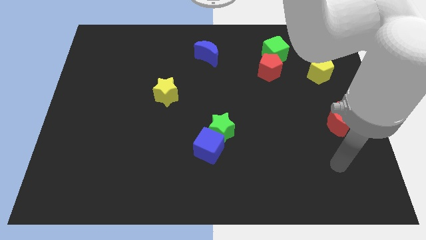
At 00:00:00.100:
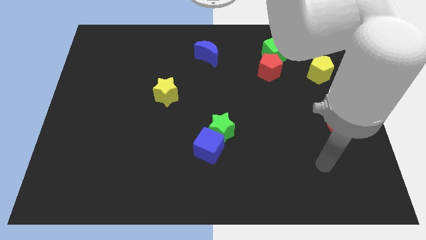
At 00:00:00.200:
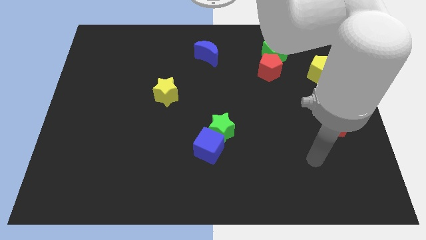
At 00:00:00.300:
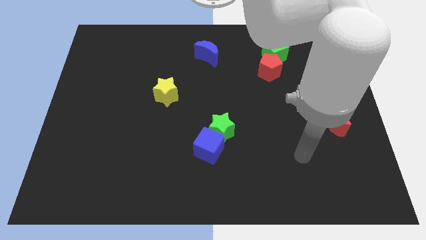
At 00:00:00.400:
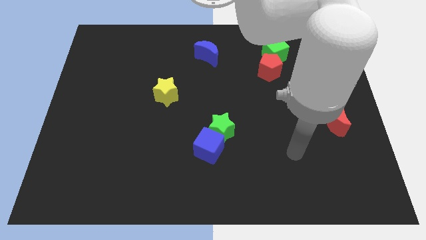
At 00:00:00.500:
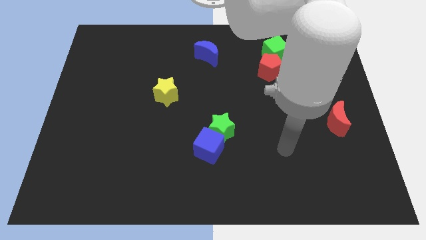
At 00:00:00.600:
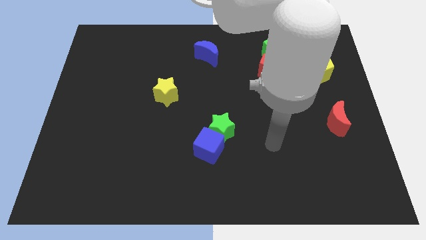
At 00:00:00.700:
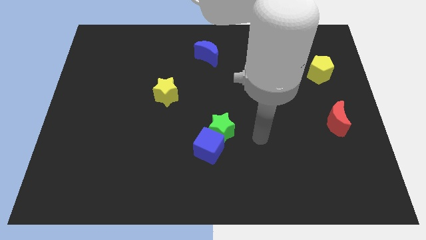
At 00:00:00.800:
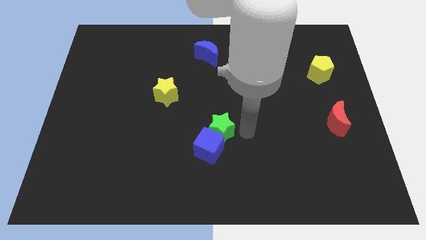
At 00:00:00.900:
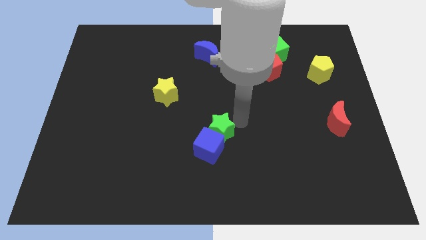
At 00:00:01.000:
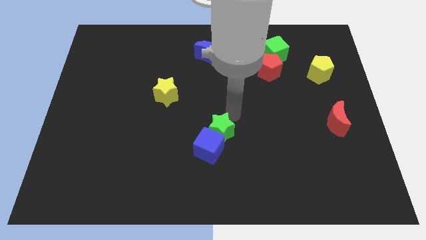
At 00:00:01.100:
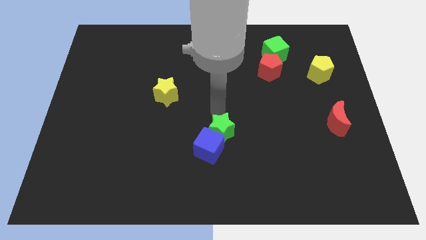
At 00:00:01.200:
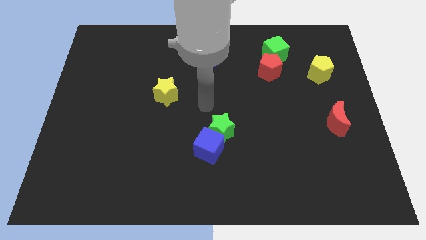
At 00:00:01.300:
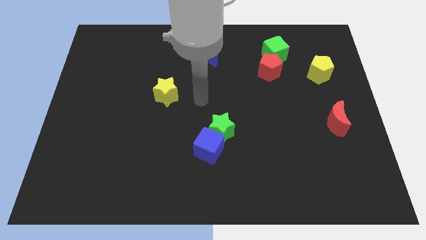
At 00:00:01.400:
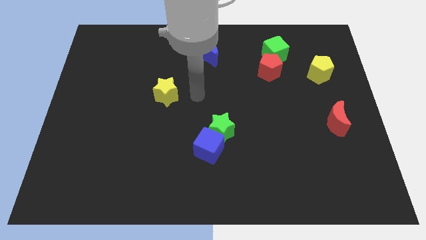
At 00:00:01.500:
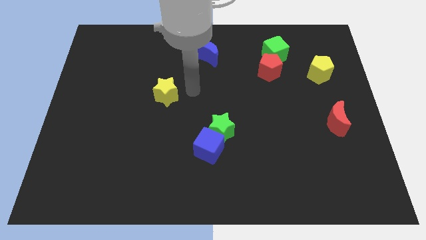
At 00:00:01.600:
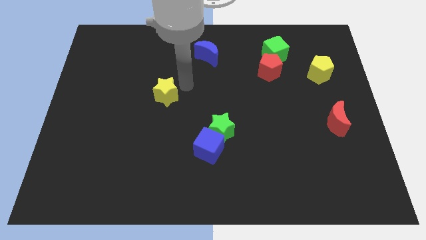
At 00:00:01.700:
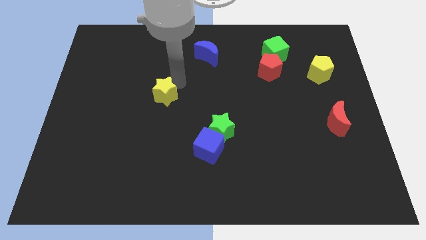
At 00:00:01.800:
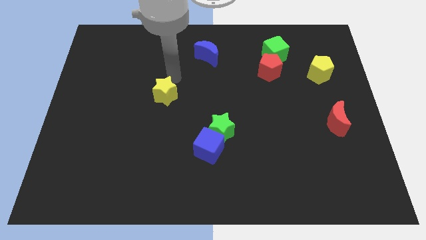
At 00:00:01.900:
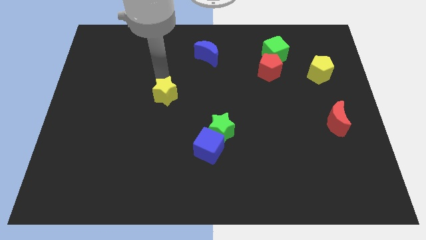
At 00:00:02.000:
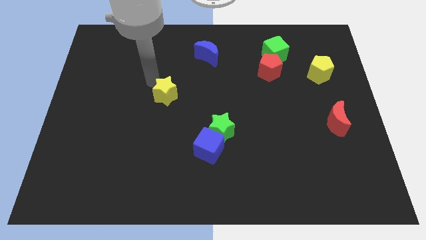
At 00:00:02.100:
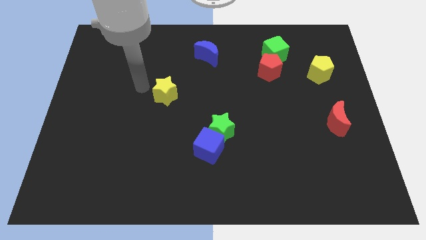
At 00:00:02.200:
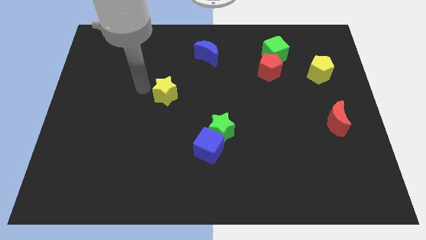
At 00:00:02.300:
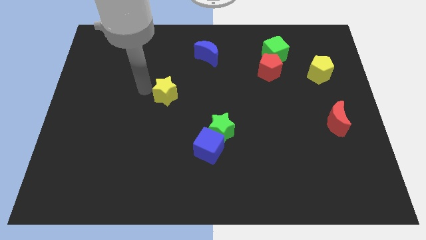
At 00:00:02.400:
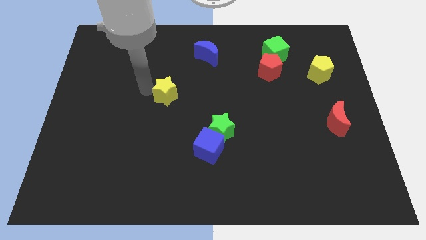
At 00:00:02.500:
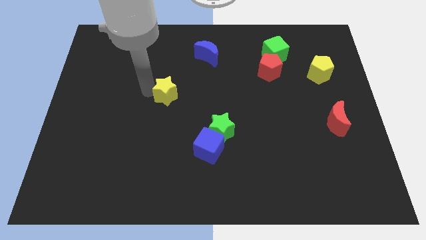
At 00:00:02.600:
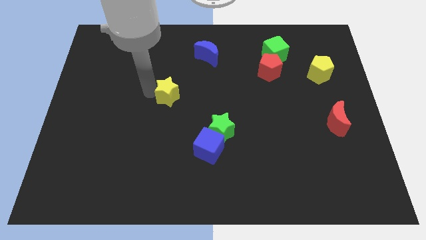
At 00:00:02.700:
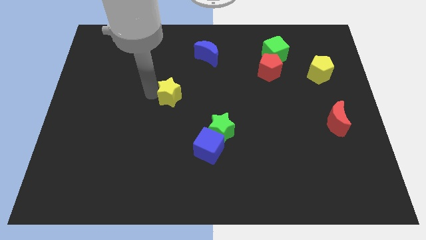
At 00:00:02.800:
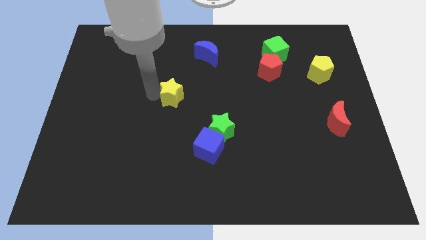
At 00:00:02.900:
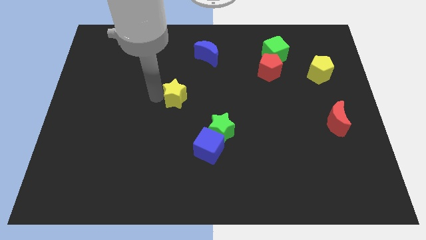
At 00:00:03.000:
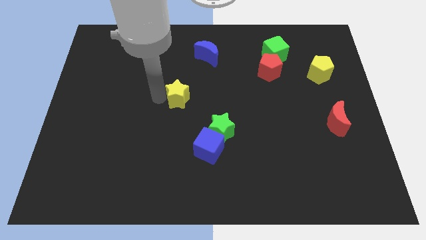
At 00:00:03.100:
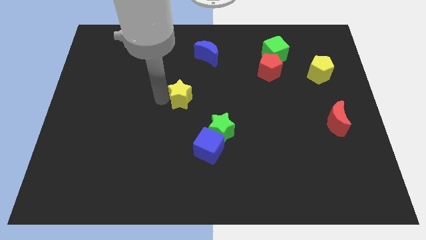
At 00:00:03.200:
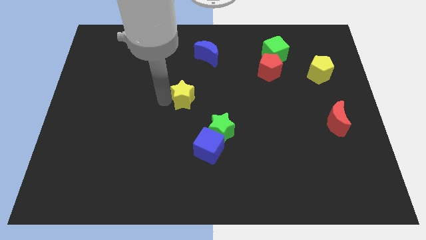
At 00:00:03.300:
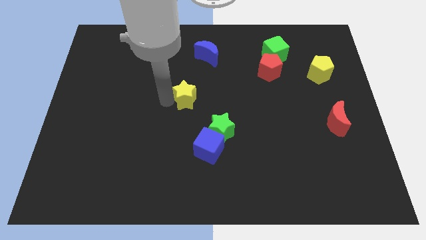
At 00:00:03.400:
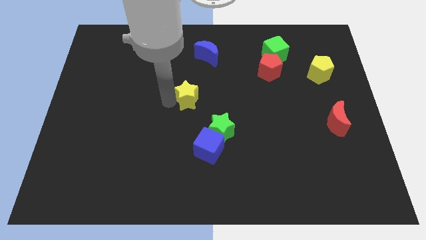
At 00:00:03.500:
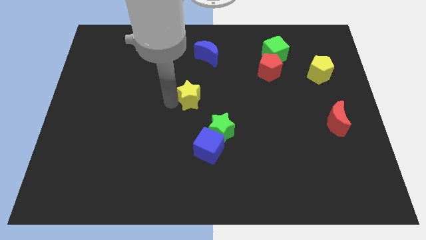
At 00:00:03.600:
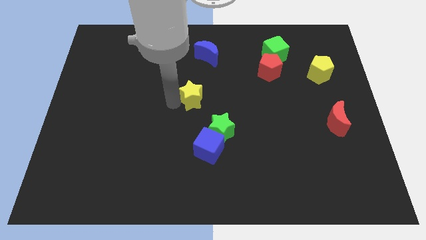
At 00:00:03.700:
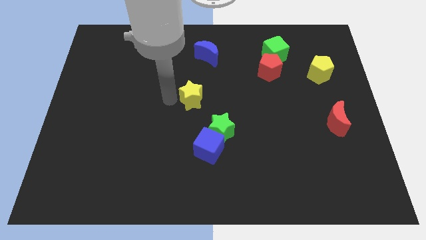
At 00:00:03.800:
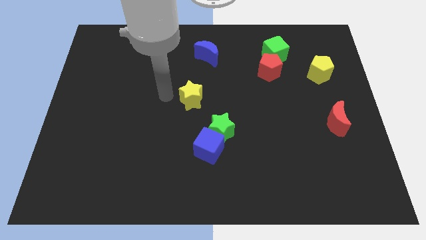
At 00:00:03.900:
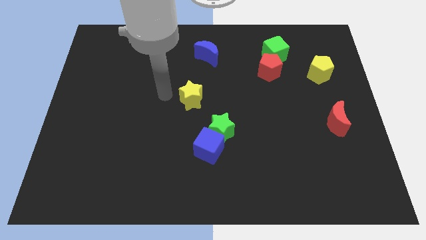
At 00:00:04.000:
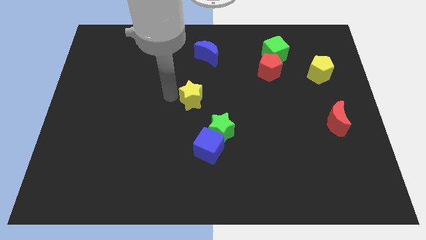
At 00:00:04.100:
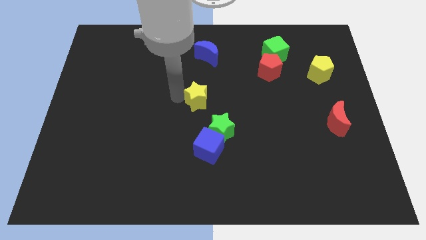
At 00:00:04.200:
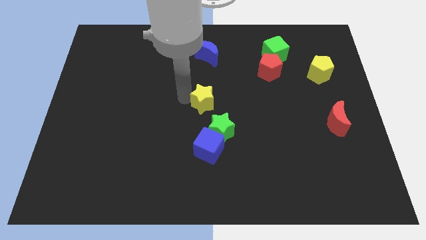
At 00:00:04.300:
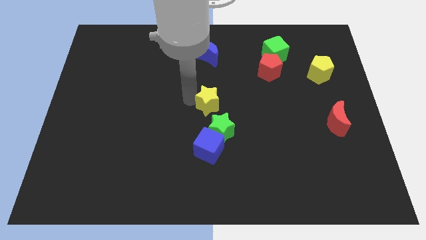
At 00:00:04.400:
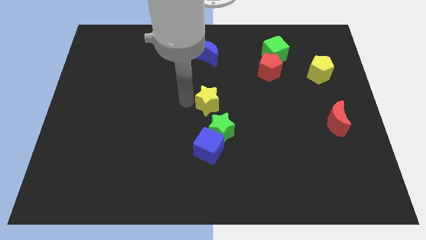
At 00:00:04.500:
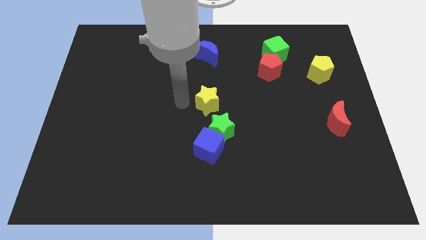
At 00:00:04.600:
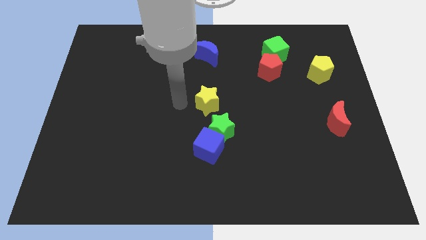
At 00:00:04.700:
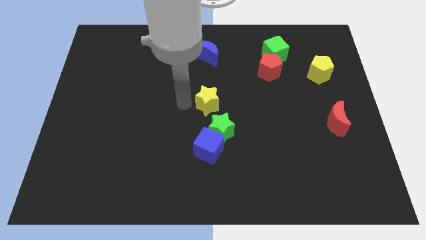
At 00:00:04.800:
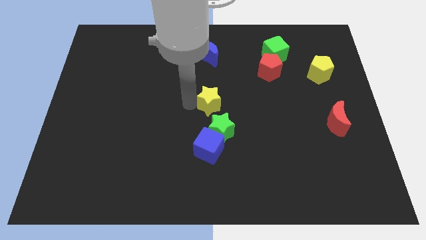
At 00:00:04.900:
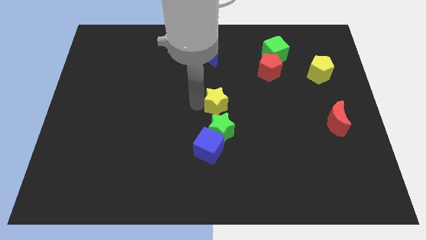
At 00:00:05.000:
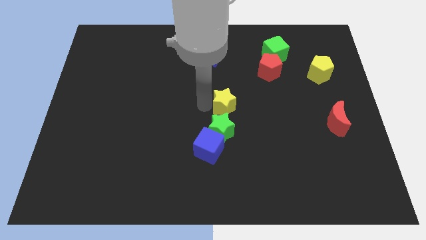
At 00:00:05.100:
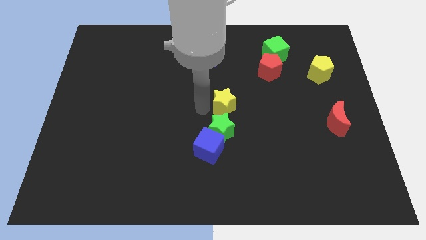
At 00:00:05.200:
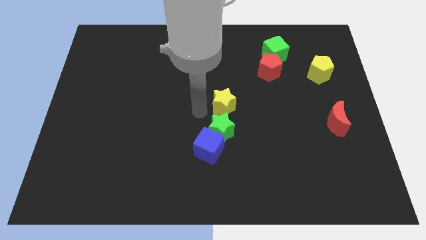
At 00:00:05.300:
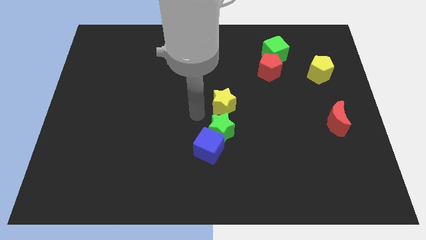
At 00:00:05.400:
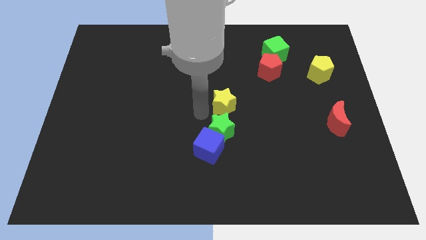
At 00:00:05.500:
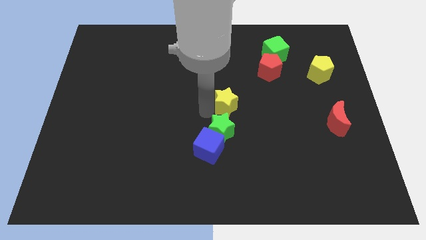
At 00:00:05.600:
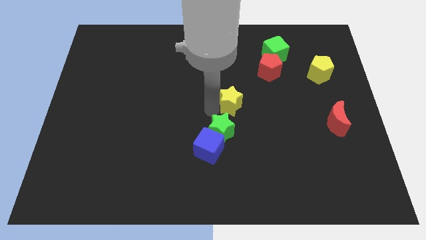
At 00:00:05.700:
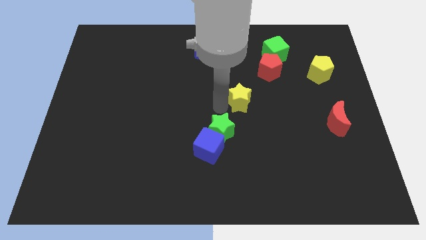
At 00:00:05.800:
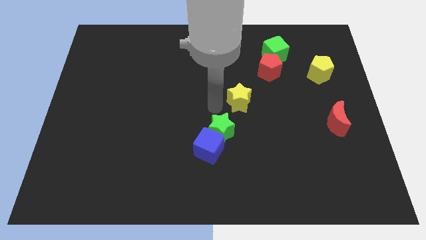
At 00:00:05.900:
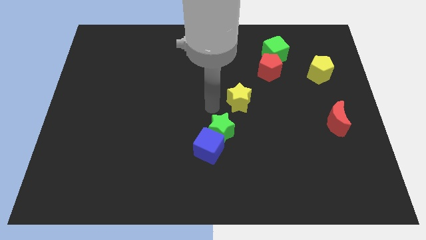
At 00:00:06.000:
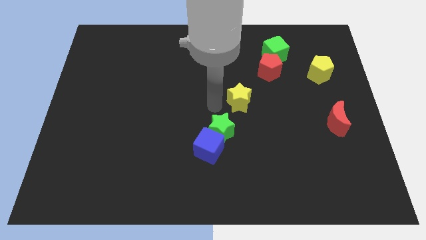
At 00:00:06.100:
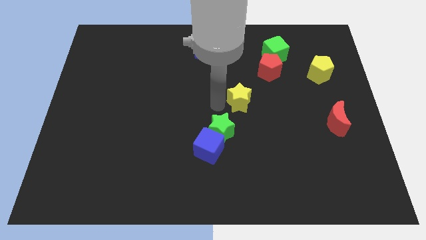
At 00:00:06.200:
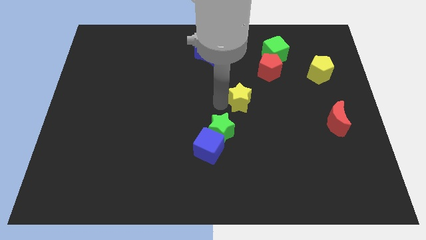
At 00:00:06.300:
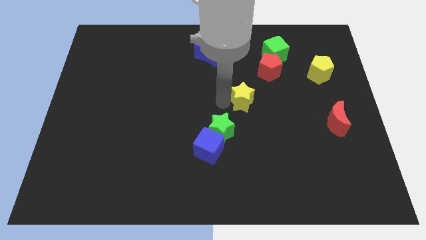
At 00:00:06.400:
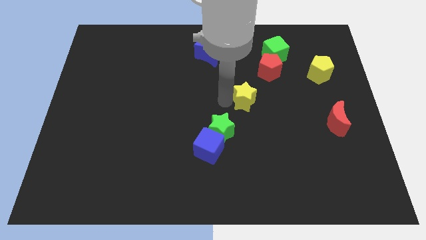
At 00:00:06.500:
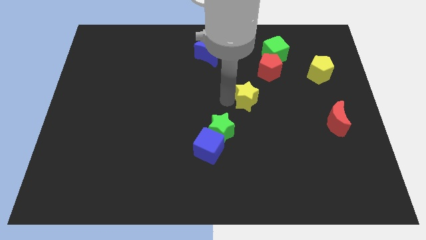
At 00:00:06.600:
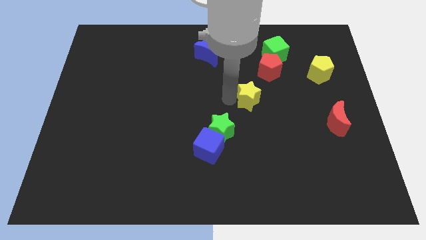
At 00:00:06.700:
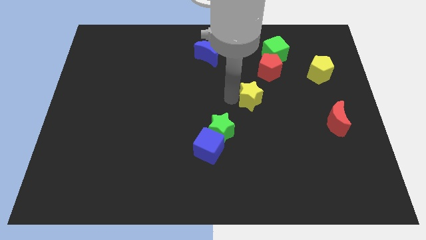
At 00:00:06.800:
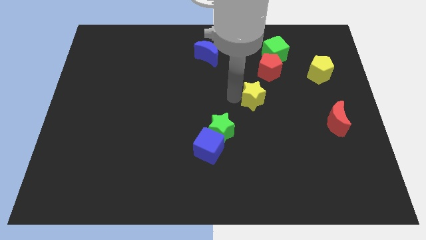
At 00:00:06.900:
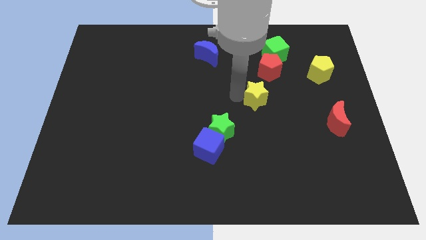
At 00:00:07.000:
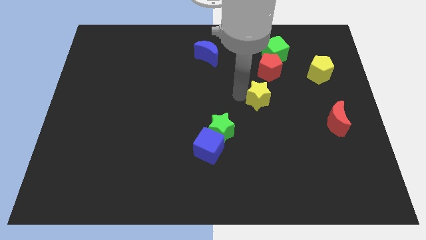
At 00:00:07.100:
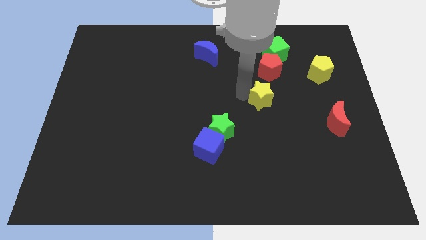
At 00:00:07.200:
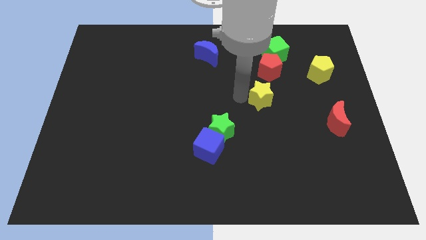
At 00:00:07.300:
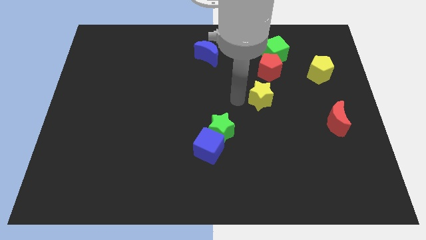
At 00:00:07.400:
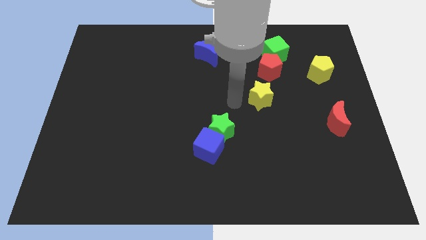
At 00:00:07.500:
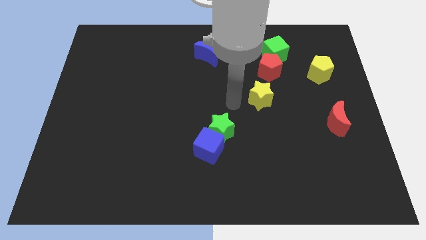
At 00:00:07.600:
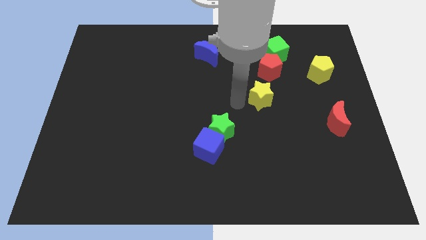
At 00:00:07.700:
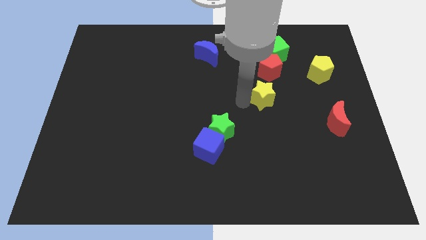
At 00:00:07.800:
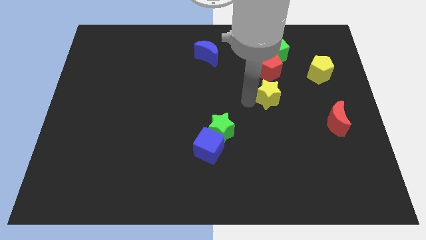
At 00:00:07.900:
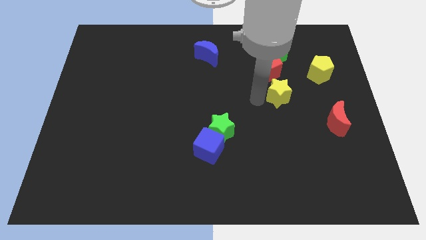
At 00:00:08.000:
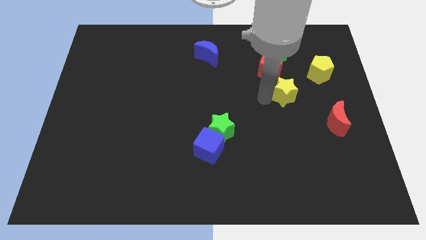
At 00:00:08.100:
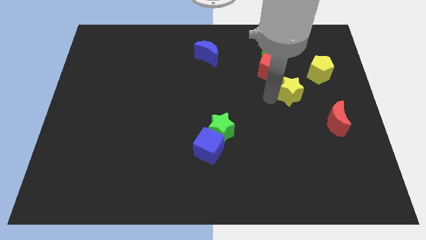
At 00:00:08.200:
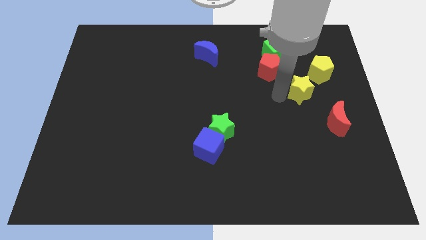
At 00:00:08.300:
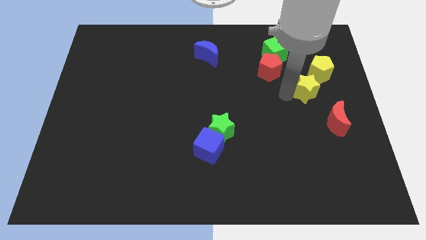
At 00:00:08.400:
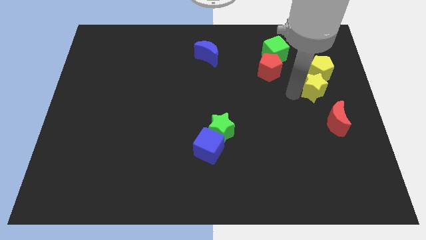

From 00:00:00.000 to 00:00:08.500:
push the yellow star above the red moon
